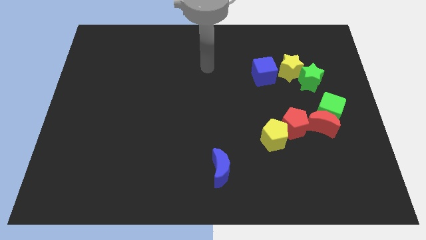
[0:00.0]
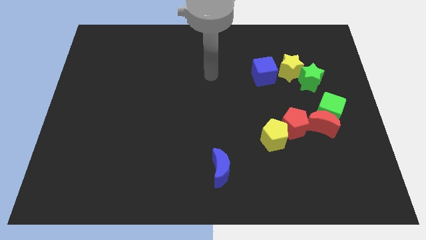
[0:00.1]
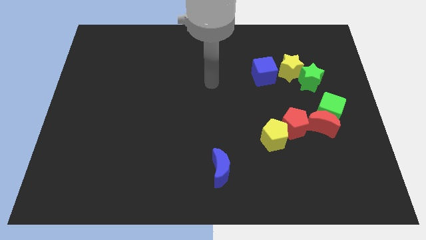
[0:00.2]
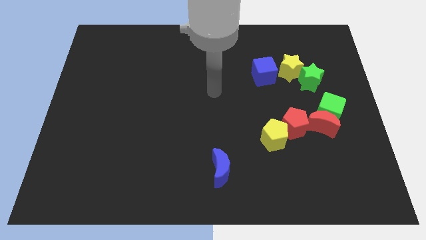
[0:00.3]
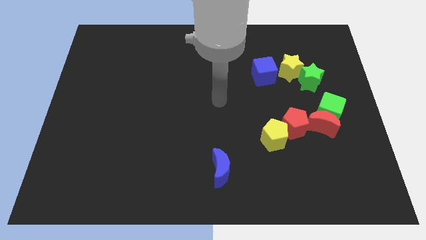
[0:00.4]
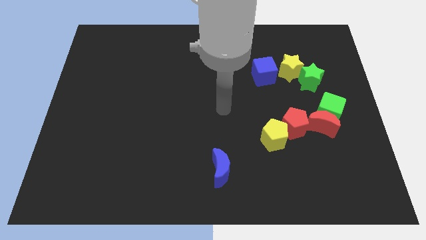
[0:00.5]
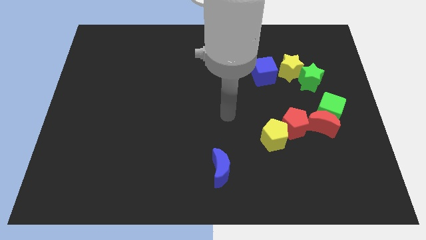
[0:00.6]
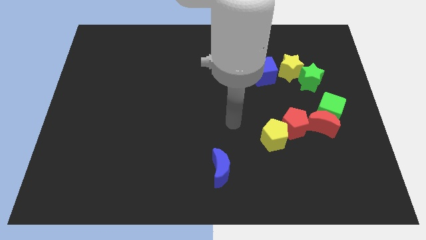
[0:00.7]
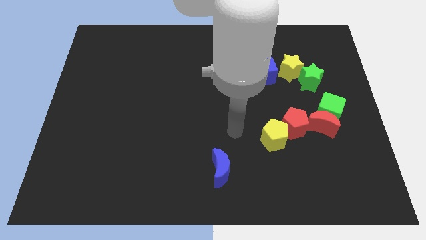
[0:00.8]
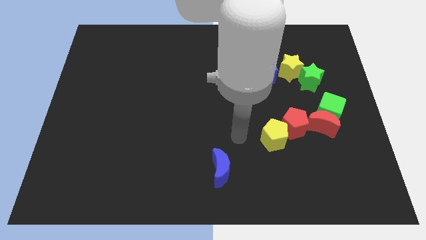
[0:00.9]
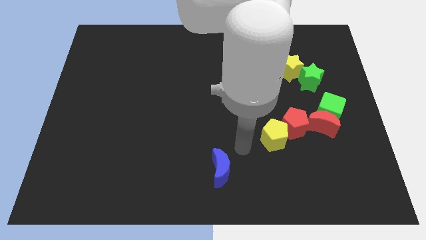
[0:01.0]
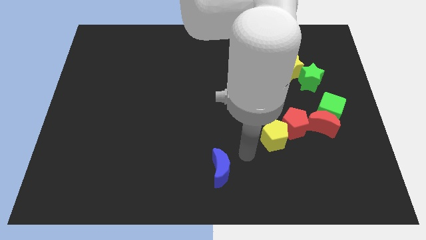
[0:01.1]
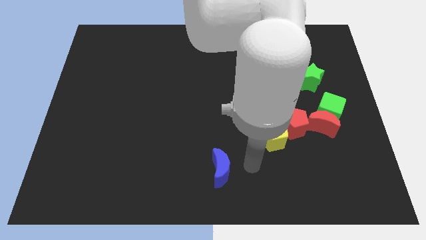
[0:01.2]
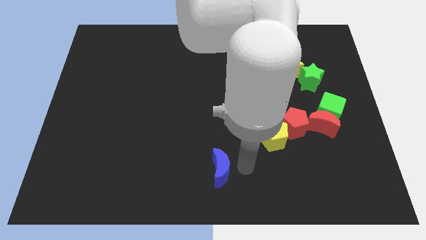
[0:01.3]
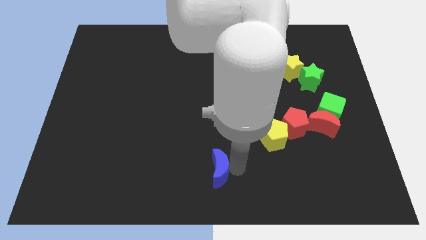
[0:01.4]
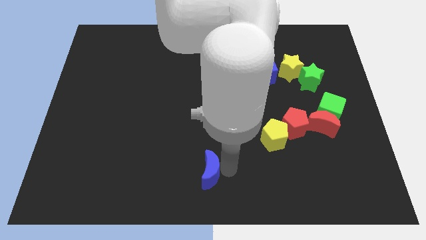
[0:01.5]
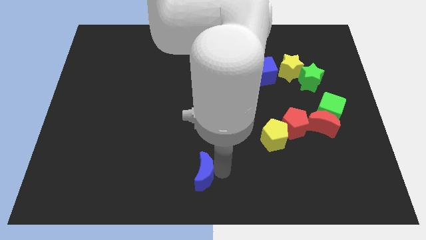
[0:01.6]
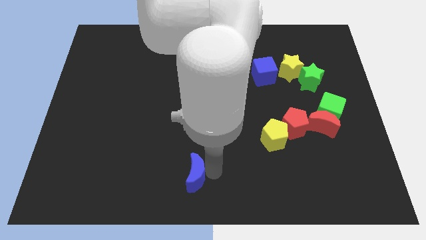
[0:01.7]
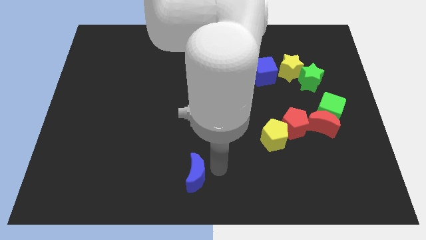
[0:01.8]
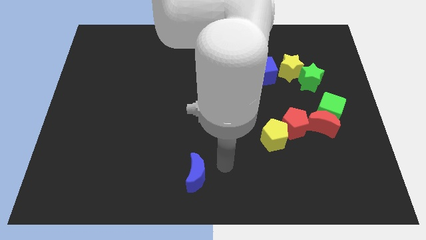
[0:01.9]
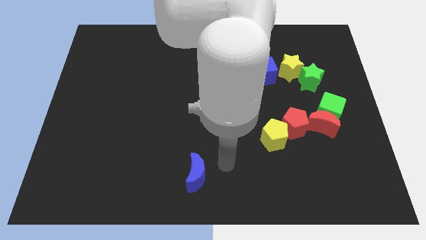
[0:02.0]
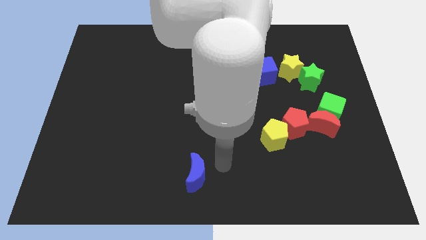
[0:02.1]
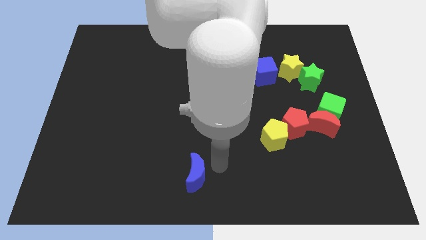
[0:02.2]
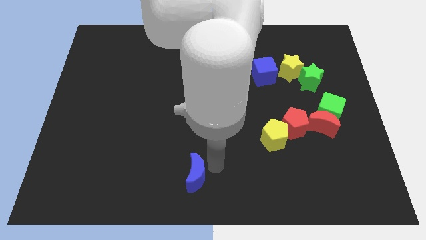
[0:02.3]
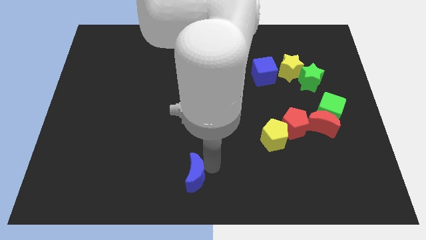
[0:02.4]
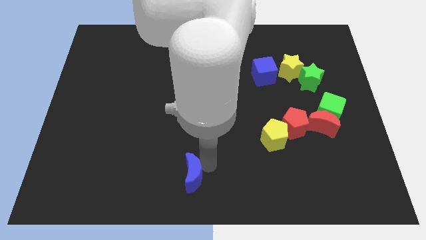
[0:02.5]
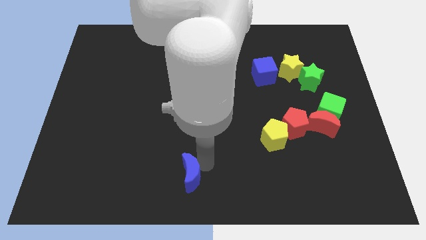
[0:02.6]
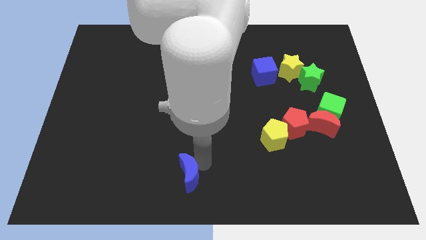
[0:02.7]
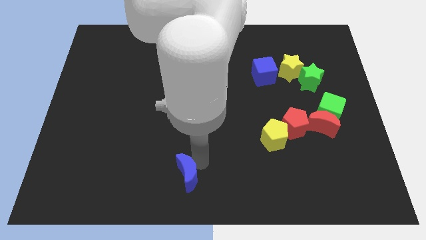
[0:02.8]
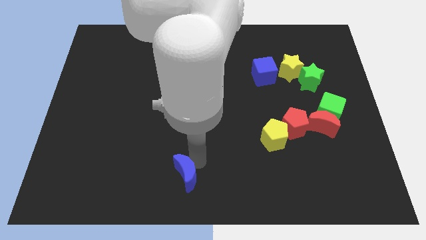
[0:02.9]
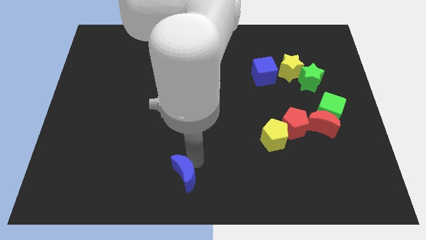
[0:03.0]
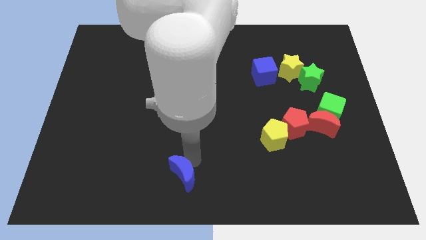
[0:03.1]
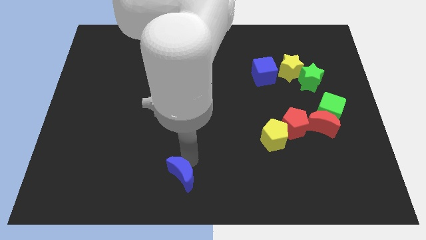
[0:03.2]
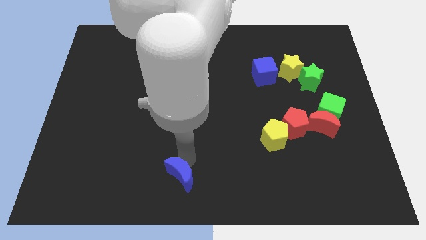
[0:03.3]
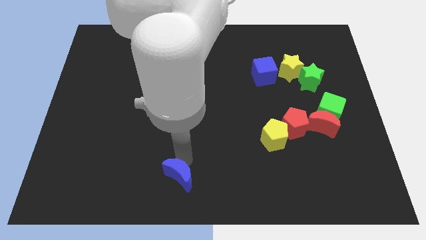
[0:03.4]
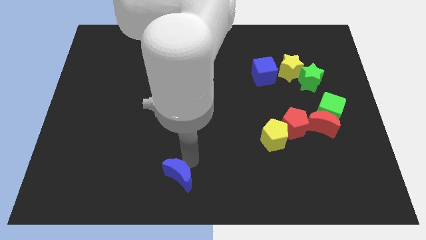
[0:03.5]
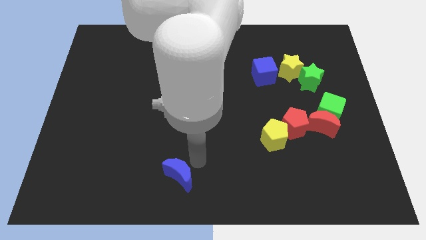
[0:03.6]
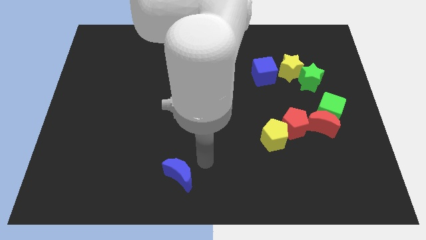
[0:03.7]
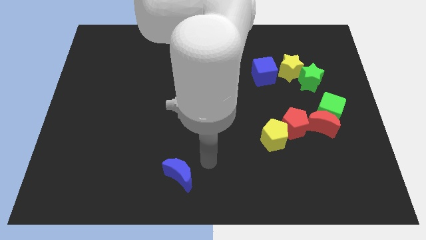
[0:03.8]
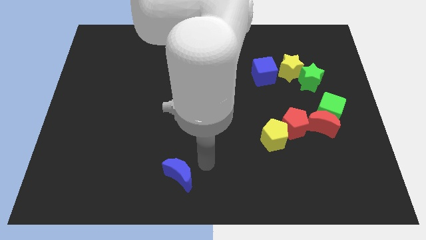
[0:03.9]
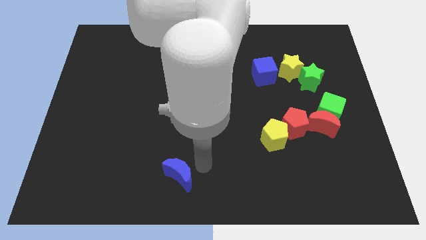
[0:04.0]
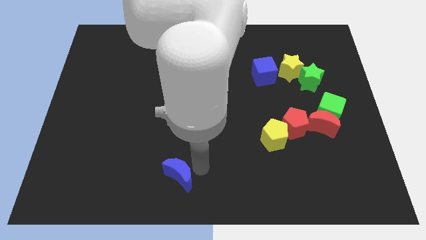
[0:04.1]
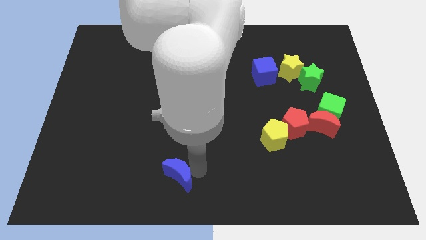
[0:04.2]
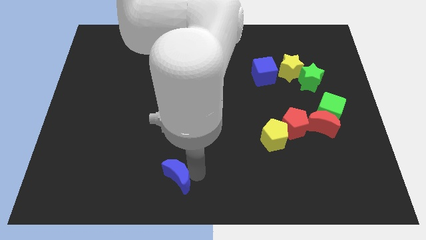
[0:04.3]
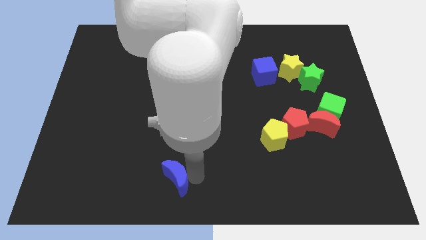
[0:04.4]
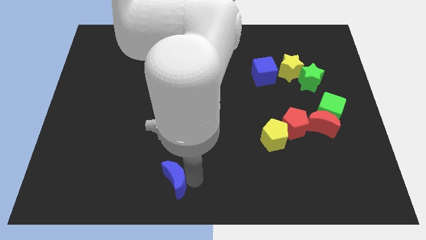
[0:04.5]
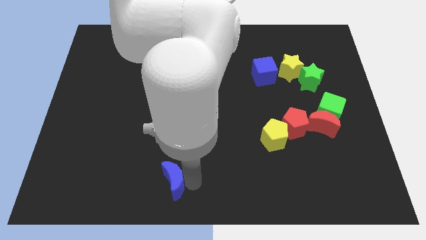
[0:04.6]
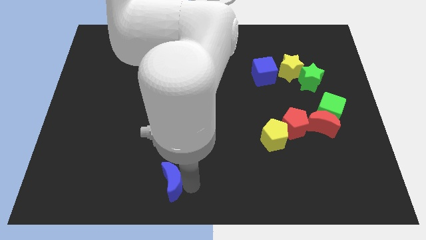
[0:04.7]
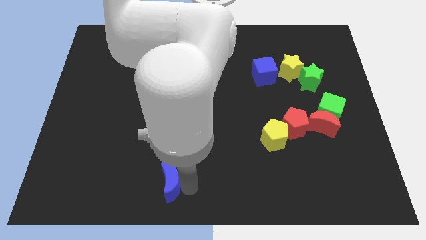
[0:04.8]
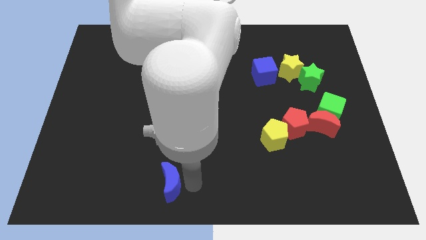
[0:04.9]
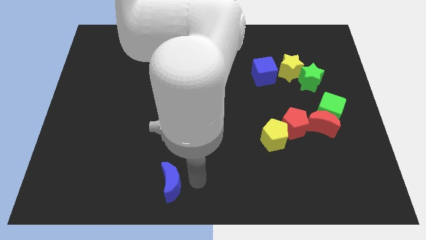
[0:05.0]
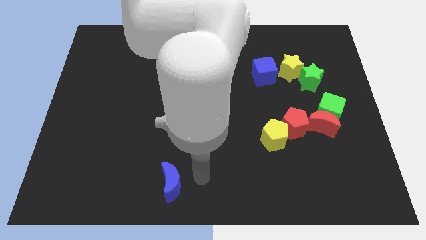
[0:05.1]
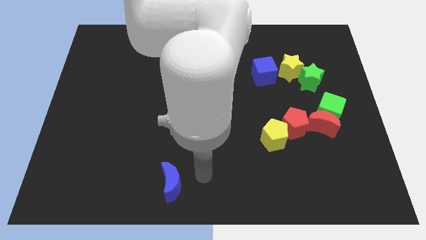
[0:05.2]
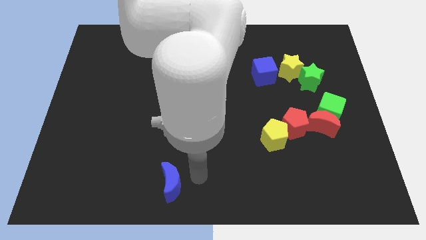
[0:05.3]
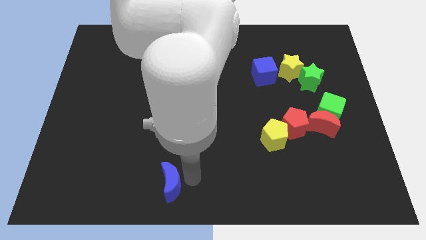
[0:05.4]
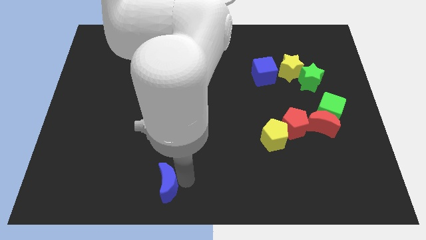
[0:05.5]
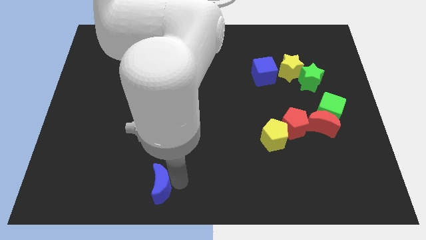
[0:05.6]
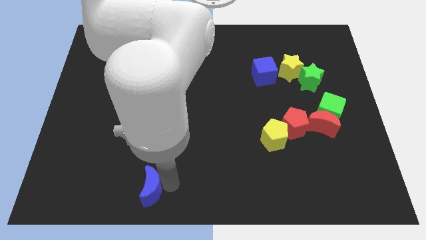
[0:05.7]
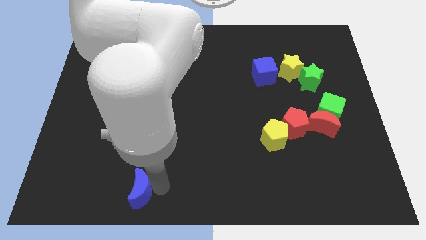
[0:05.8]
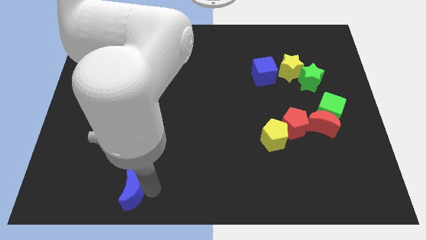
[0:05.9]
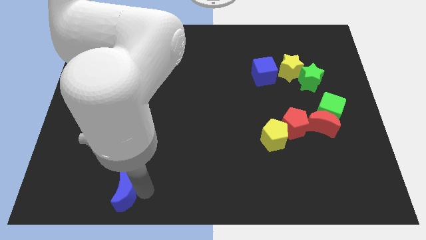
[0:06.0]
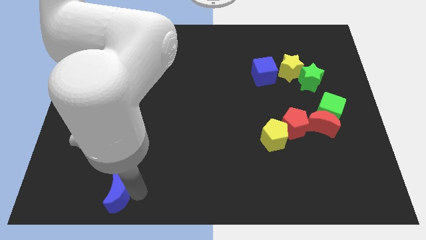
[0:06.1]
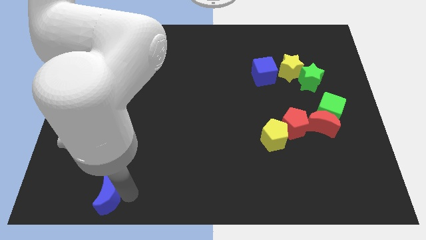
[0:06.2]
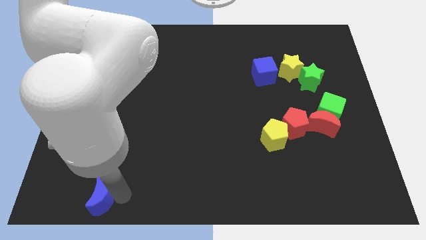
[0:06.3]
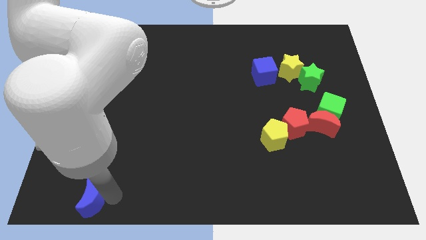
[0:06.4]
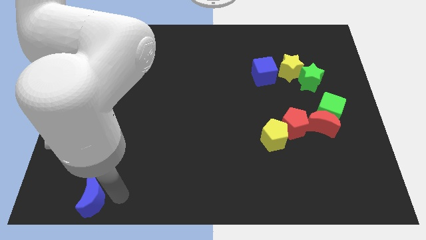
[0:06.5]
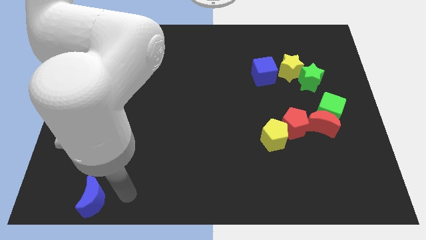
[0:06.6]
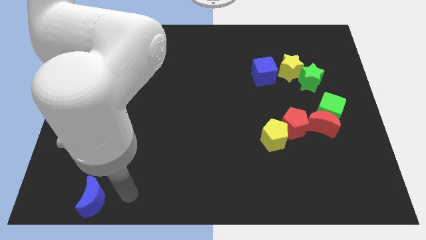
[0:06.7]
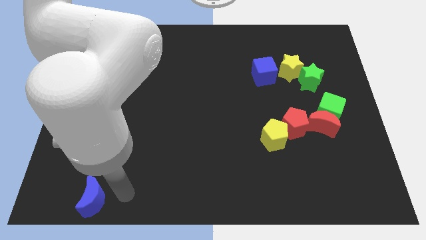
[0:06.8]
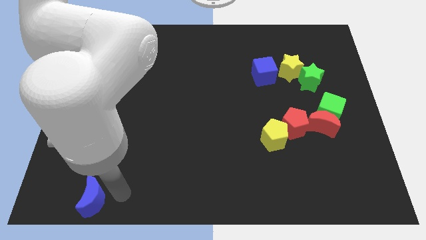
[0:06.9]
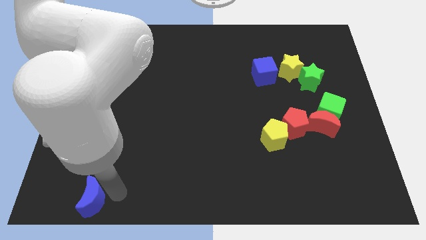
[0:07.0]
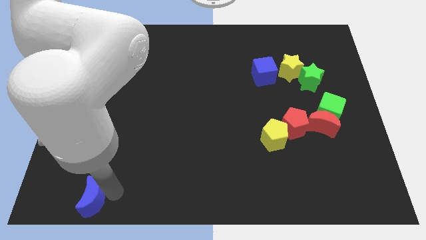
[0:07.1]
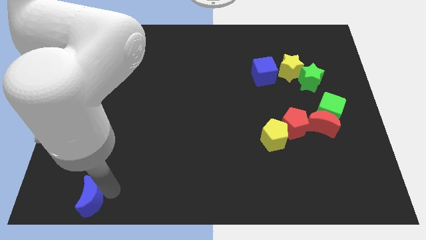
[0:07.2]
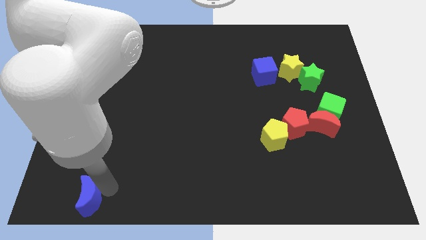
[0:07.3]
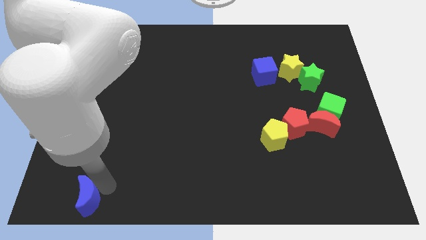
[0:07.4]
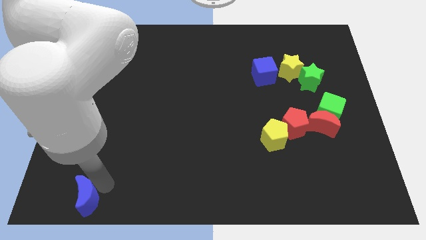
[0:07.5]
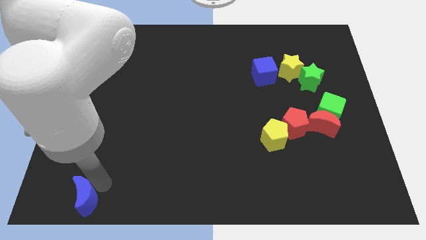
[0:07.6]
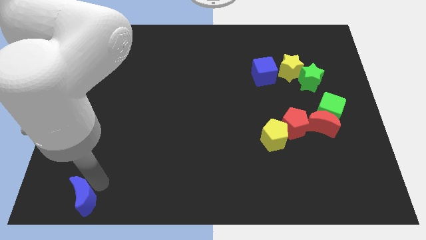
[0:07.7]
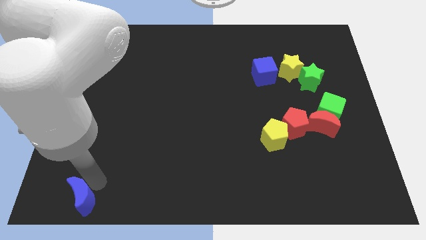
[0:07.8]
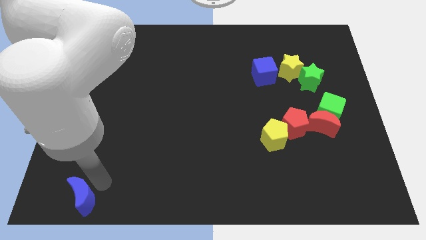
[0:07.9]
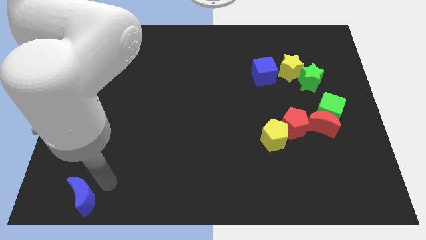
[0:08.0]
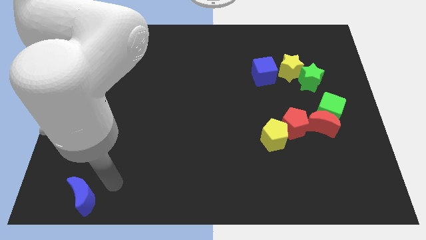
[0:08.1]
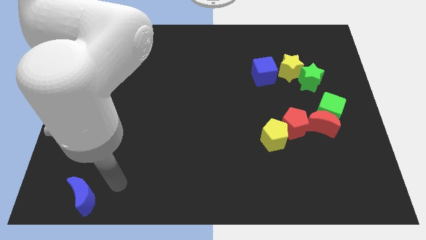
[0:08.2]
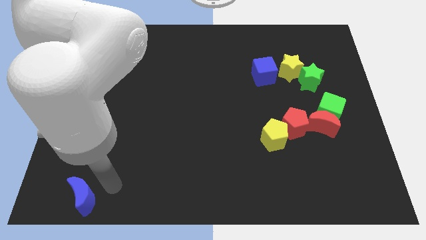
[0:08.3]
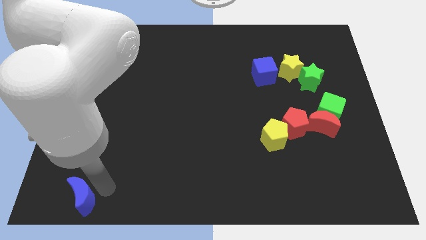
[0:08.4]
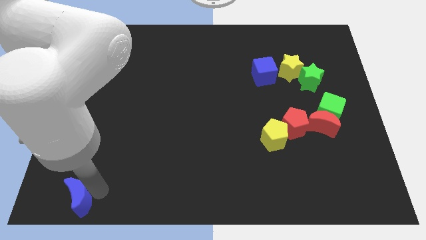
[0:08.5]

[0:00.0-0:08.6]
move the blue moon to the bottom left
